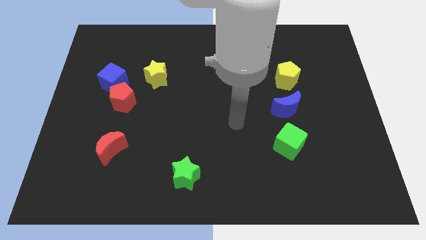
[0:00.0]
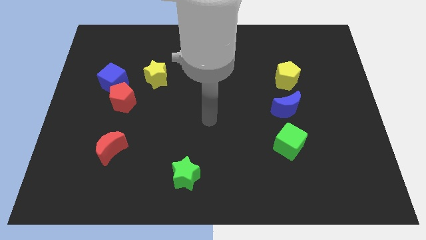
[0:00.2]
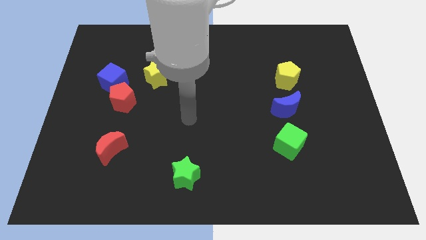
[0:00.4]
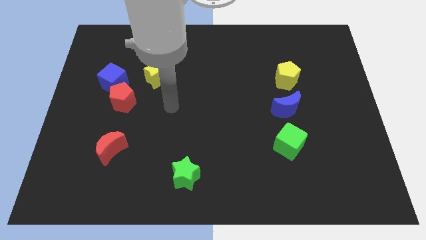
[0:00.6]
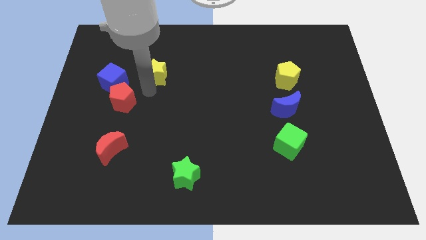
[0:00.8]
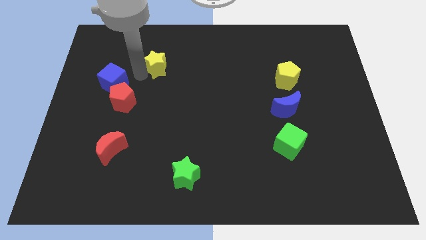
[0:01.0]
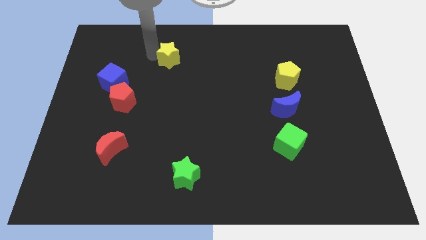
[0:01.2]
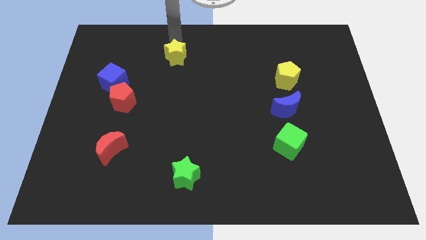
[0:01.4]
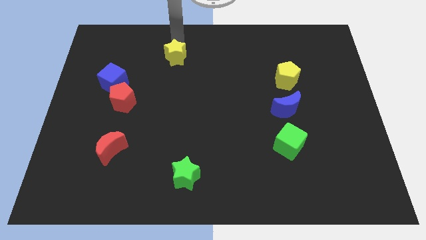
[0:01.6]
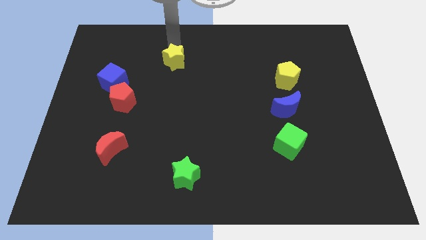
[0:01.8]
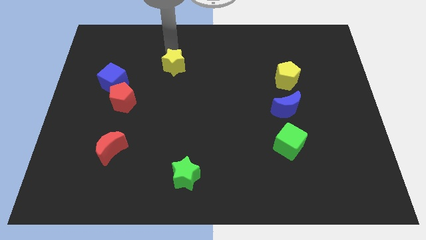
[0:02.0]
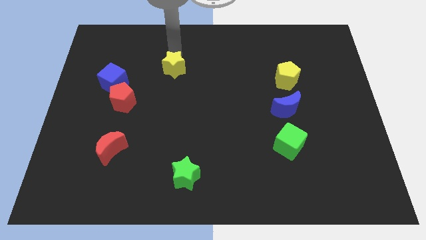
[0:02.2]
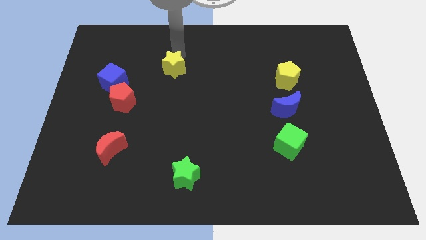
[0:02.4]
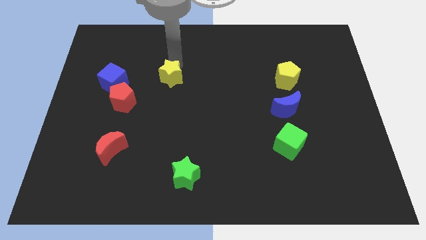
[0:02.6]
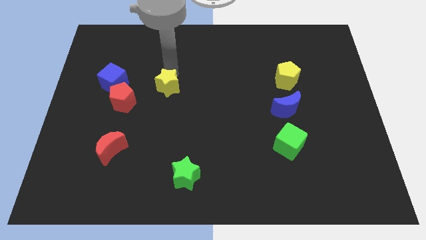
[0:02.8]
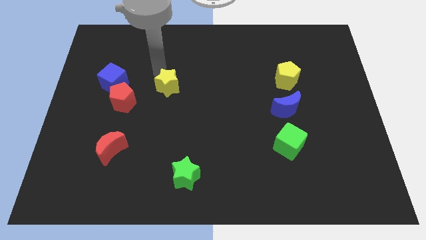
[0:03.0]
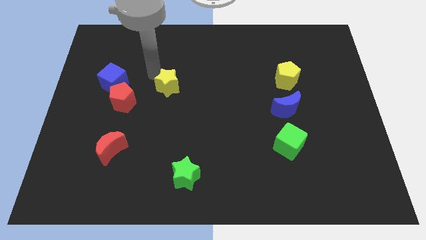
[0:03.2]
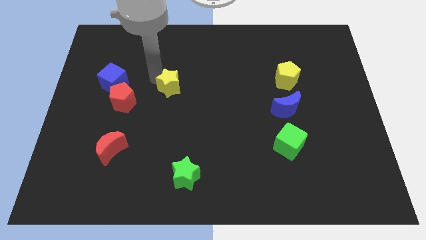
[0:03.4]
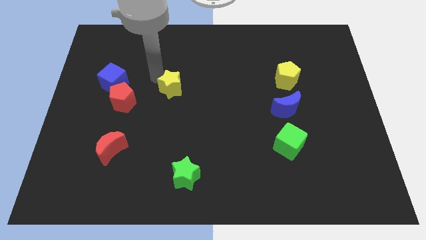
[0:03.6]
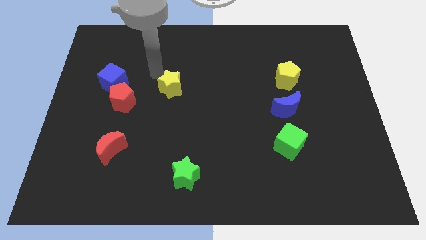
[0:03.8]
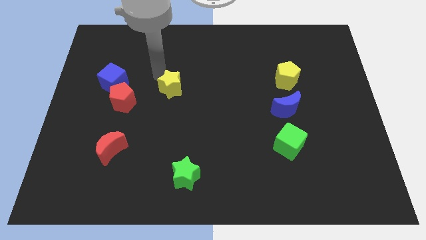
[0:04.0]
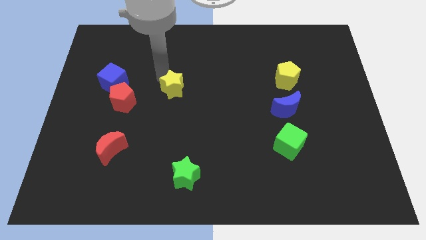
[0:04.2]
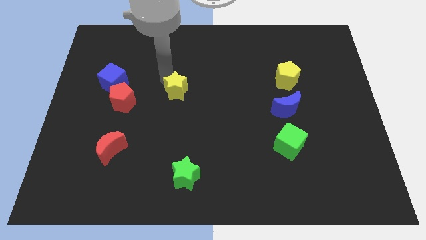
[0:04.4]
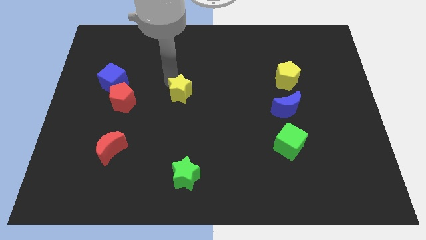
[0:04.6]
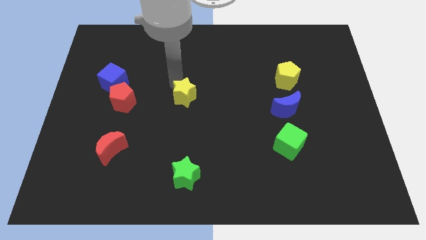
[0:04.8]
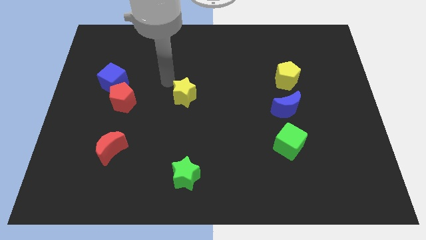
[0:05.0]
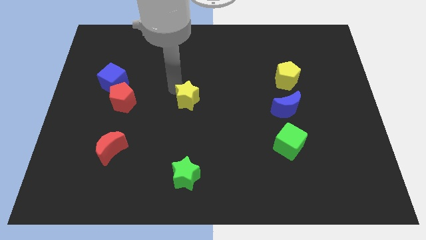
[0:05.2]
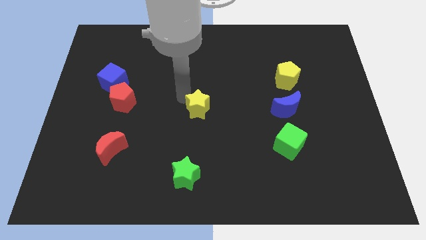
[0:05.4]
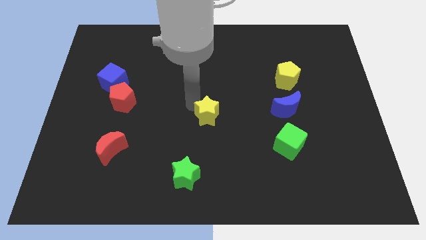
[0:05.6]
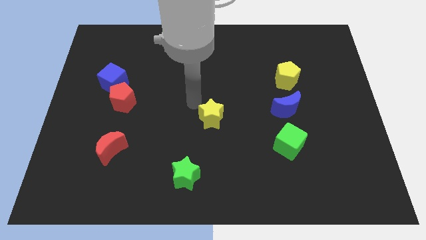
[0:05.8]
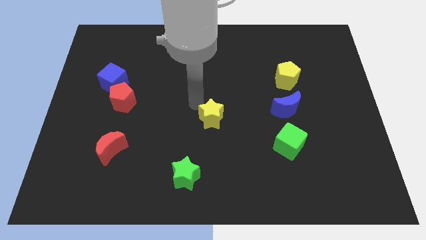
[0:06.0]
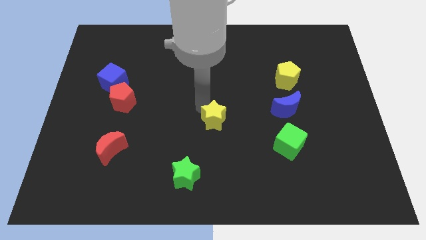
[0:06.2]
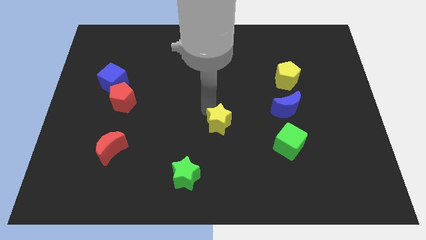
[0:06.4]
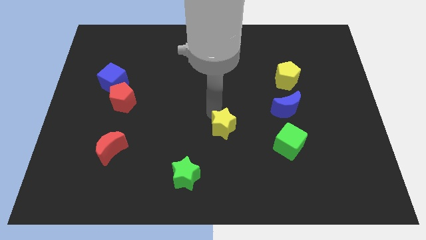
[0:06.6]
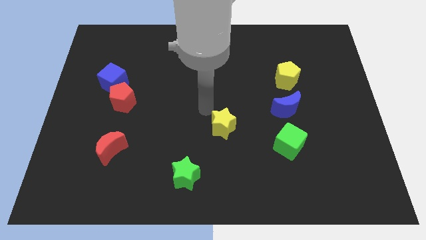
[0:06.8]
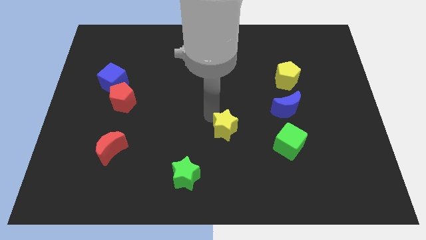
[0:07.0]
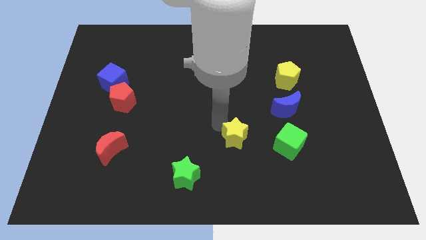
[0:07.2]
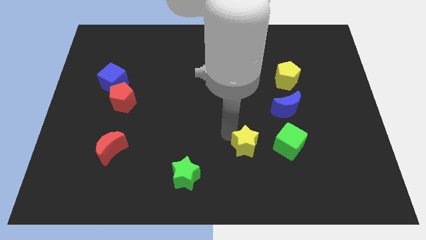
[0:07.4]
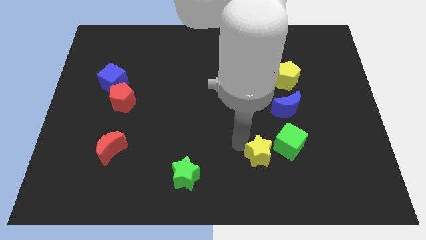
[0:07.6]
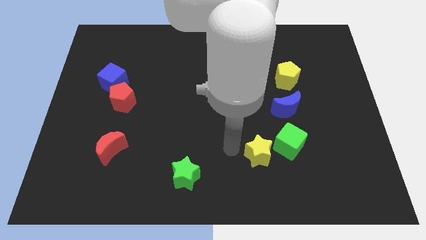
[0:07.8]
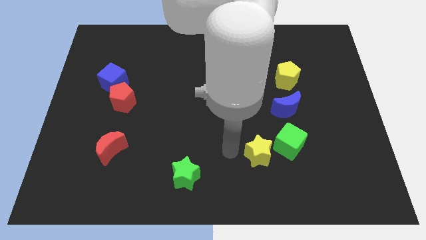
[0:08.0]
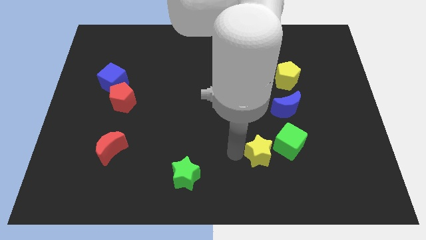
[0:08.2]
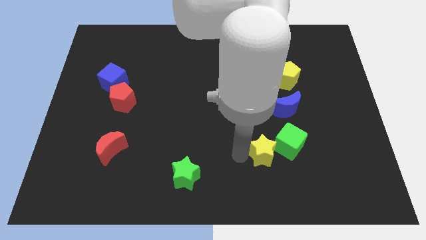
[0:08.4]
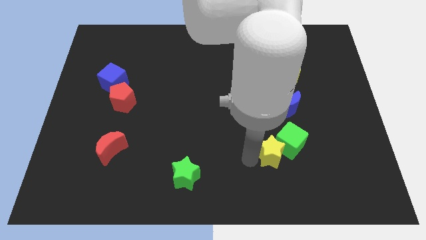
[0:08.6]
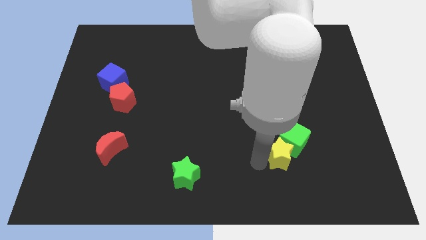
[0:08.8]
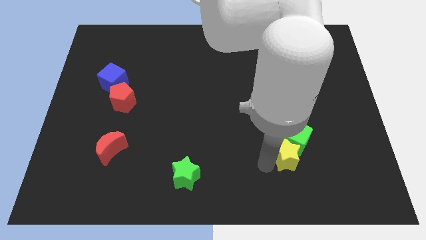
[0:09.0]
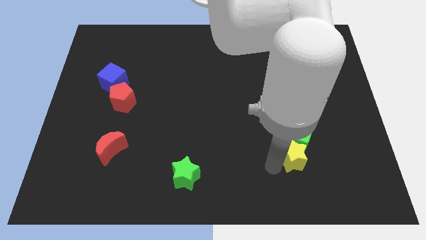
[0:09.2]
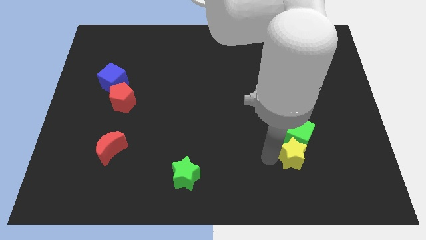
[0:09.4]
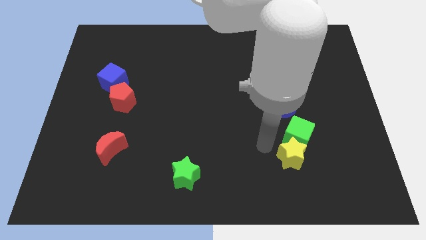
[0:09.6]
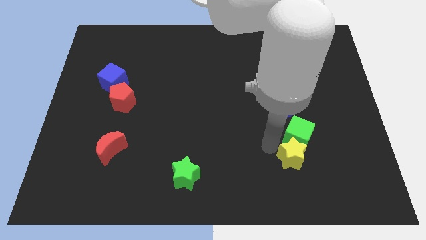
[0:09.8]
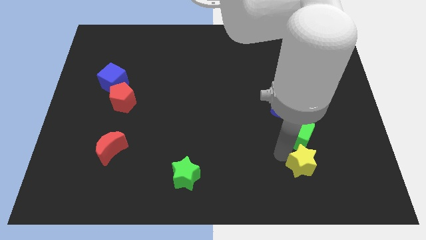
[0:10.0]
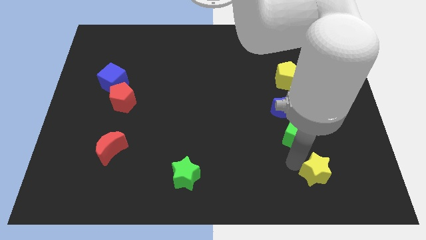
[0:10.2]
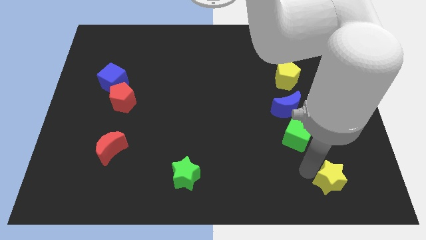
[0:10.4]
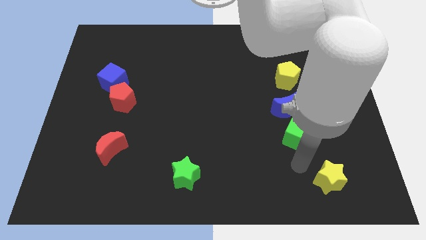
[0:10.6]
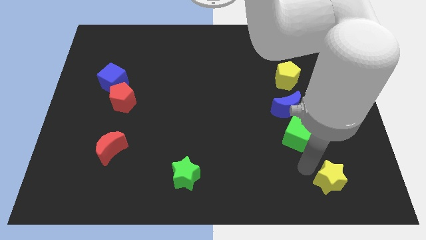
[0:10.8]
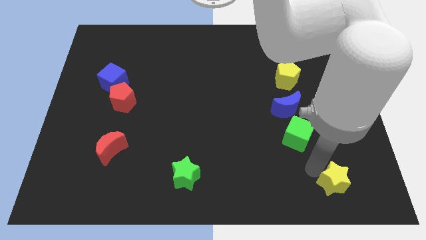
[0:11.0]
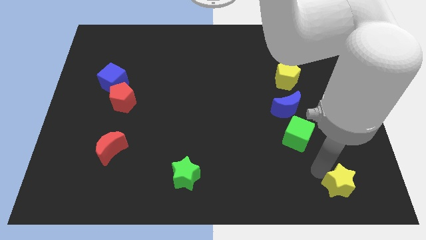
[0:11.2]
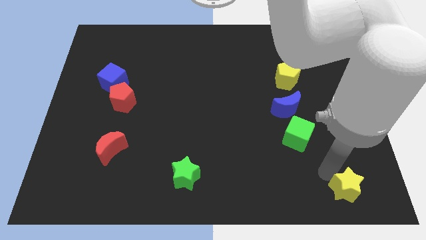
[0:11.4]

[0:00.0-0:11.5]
slide the yellow star to the bottom right

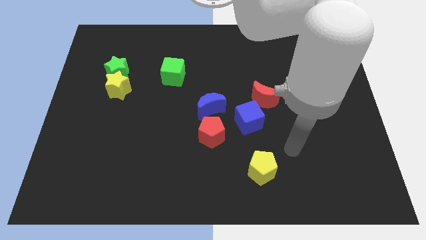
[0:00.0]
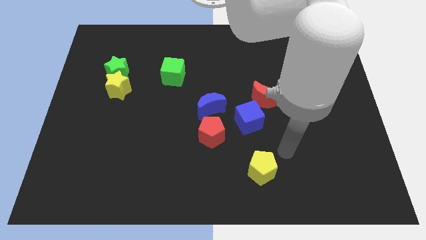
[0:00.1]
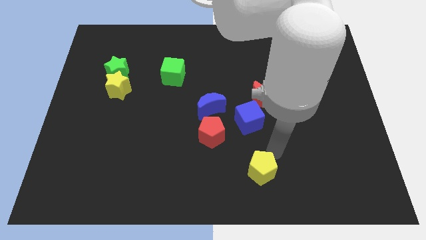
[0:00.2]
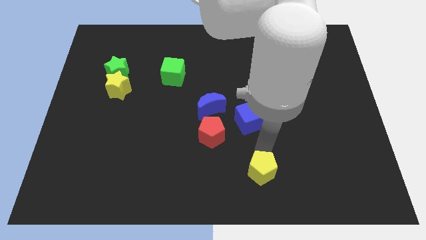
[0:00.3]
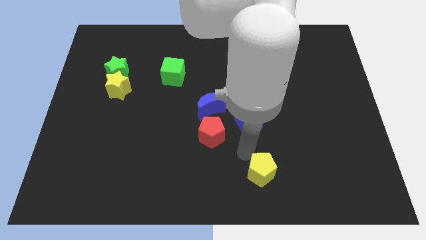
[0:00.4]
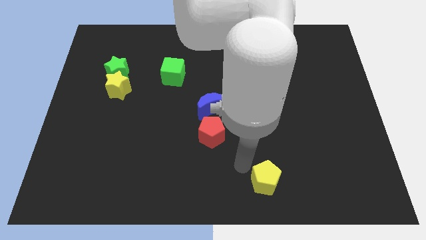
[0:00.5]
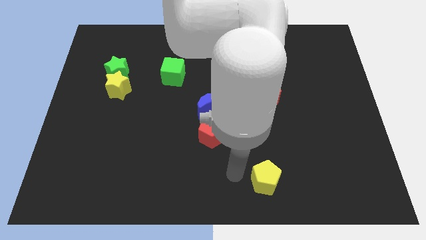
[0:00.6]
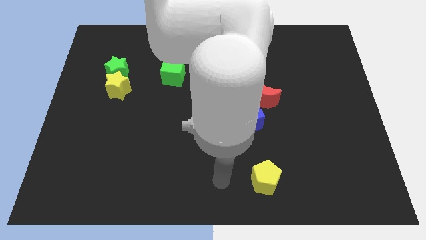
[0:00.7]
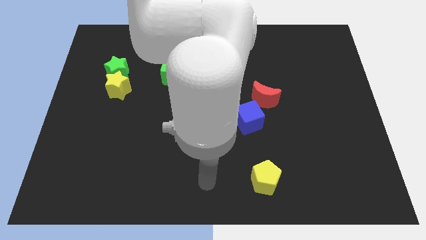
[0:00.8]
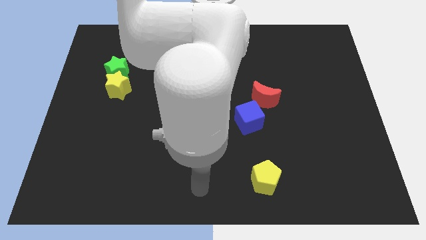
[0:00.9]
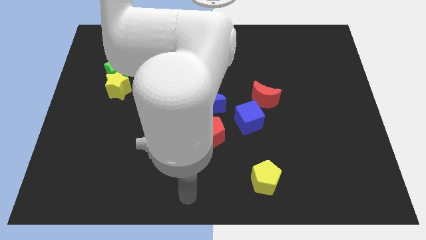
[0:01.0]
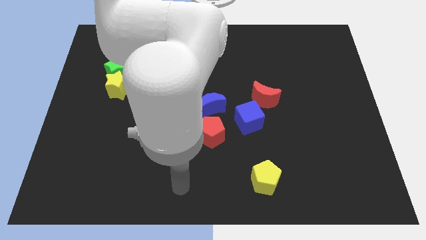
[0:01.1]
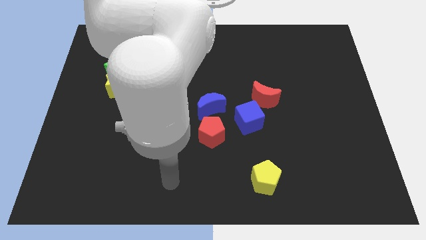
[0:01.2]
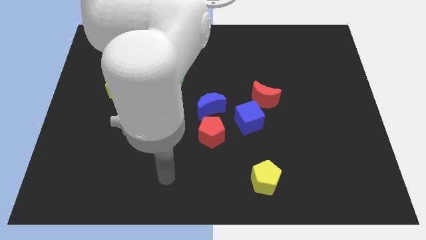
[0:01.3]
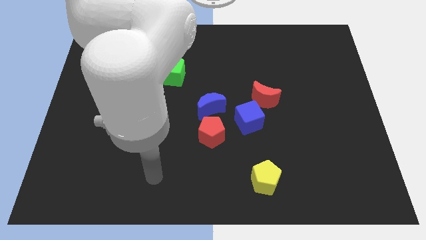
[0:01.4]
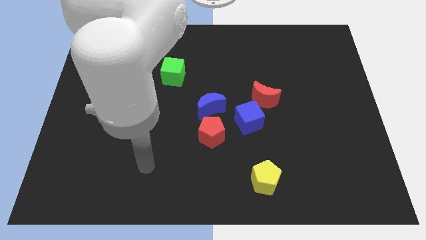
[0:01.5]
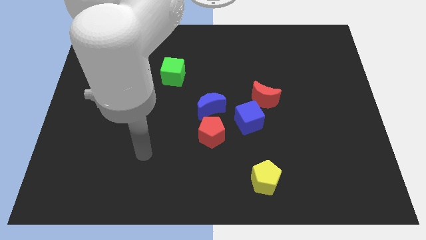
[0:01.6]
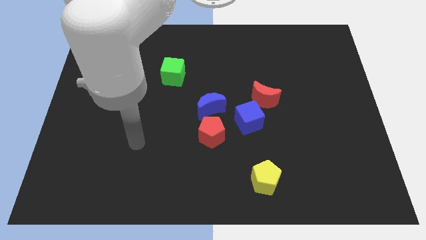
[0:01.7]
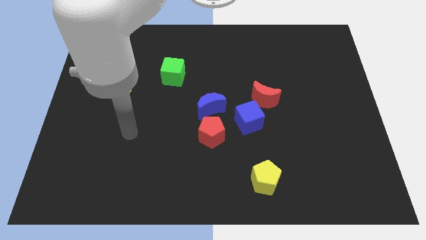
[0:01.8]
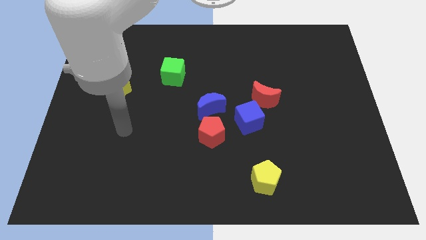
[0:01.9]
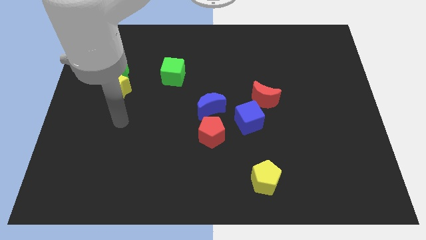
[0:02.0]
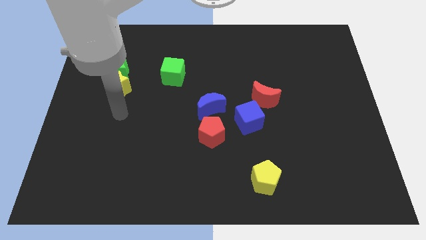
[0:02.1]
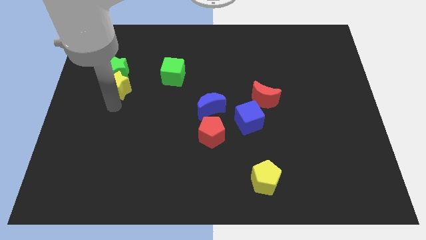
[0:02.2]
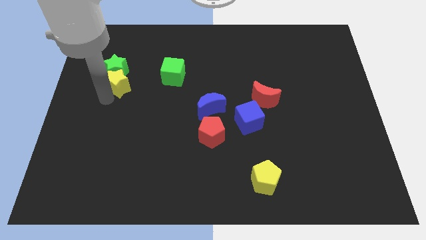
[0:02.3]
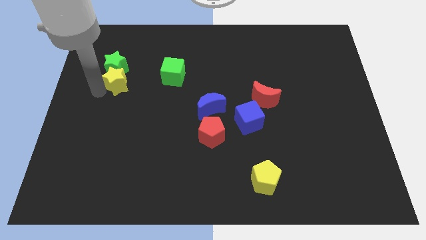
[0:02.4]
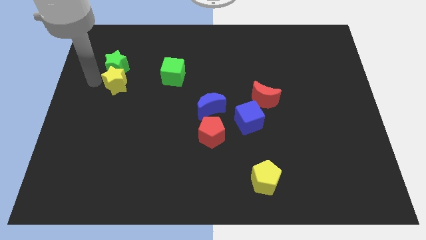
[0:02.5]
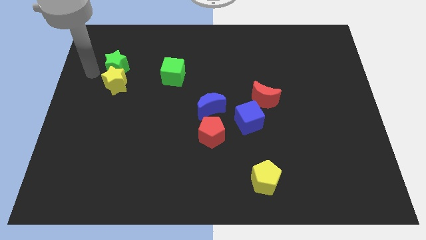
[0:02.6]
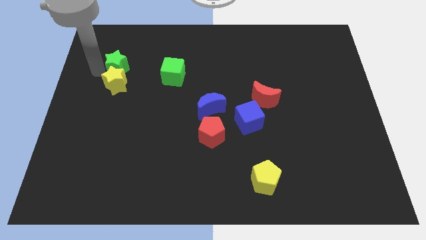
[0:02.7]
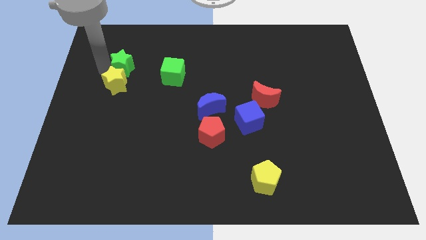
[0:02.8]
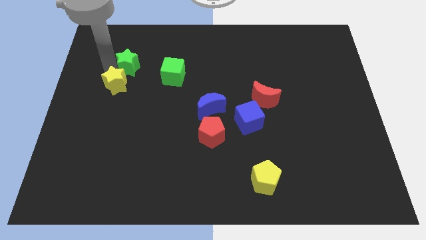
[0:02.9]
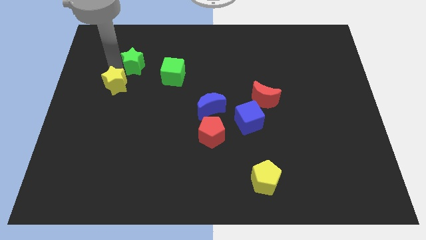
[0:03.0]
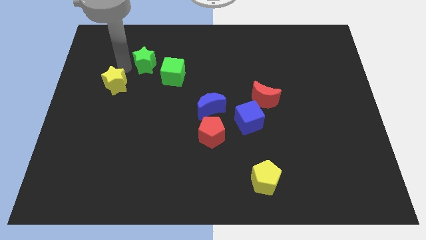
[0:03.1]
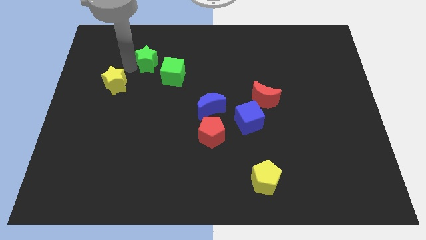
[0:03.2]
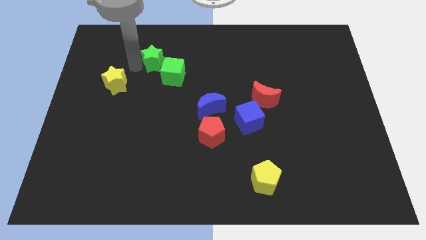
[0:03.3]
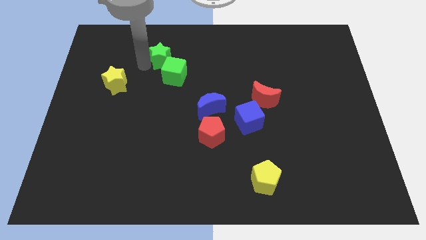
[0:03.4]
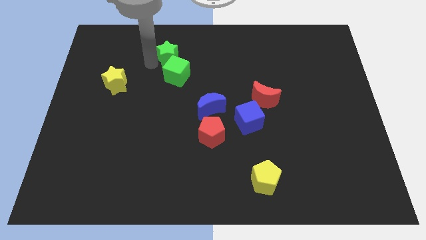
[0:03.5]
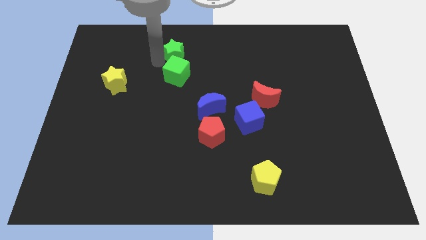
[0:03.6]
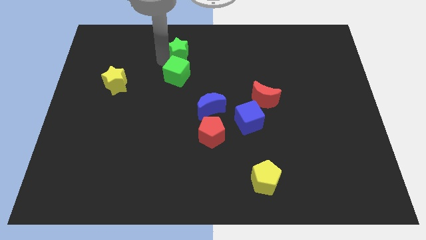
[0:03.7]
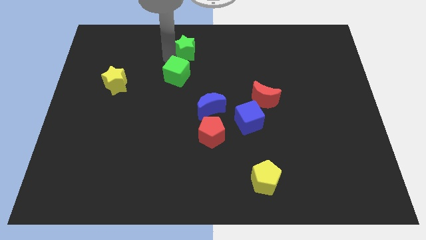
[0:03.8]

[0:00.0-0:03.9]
push the green star to the top
